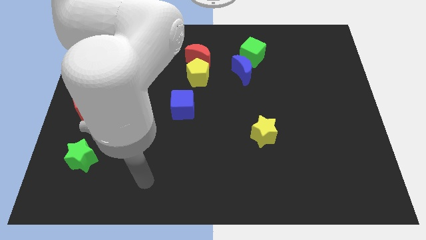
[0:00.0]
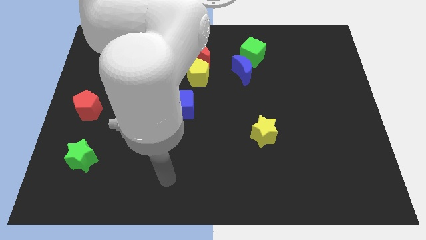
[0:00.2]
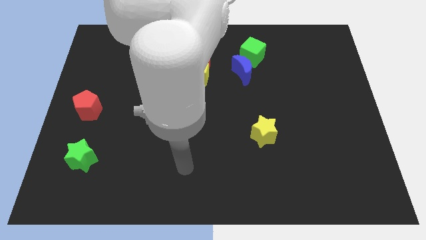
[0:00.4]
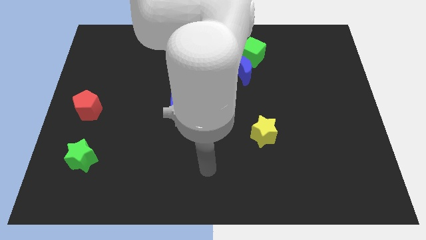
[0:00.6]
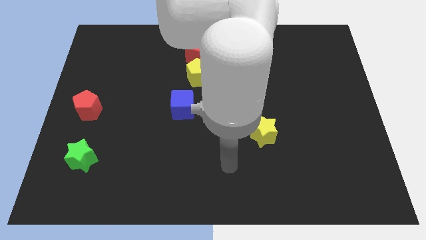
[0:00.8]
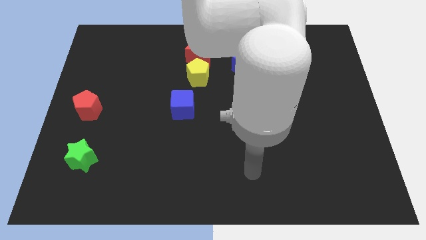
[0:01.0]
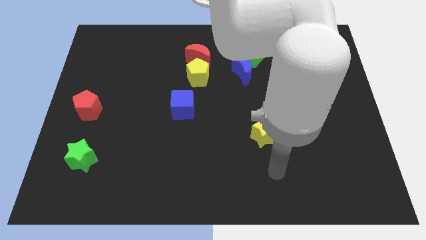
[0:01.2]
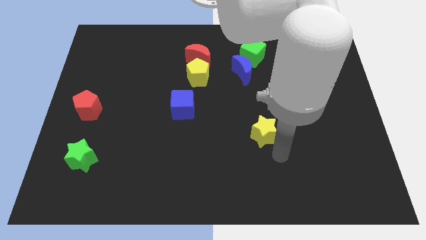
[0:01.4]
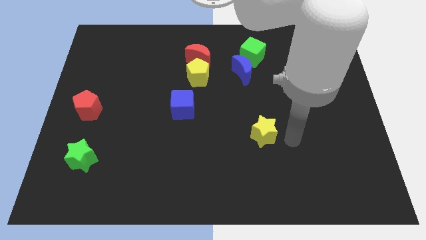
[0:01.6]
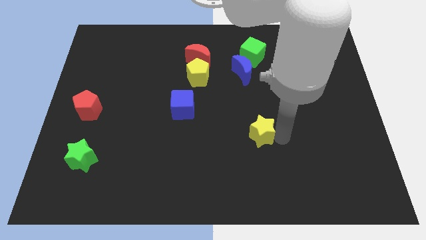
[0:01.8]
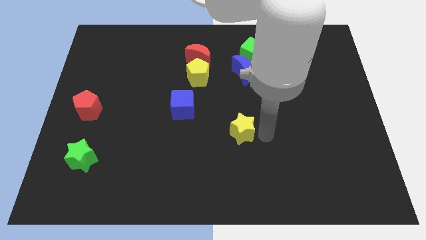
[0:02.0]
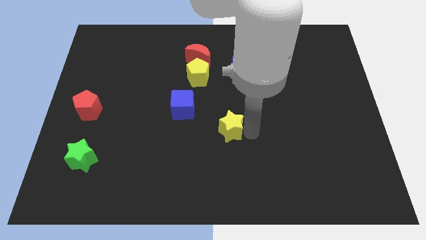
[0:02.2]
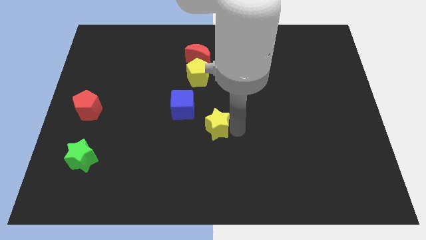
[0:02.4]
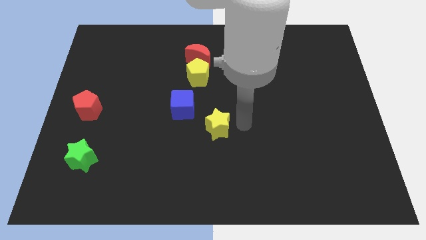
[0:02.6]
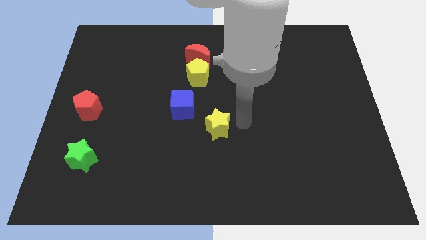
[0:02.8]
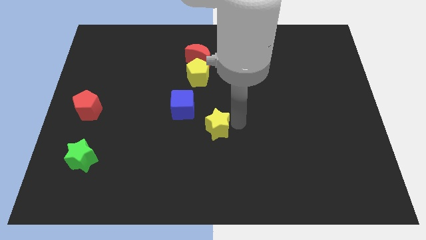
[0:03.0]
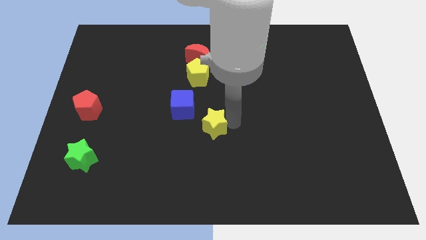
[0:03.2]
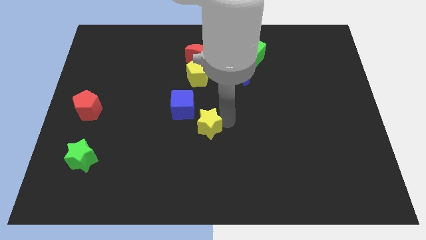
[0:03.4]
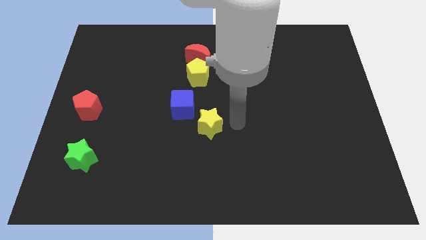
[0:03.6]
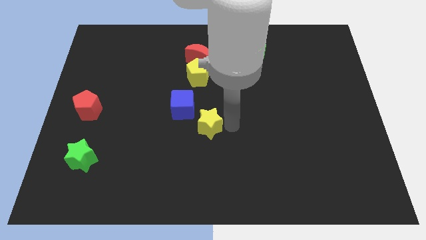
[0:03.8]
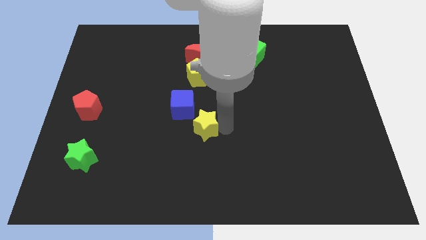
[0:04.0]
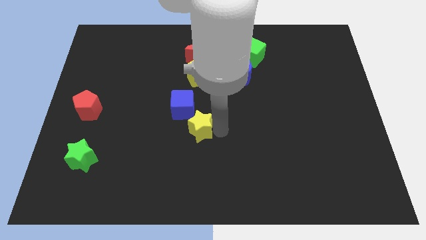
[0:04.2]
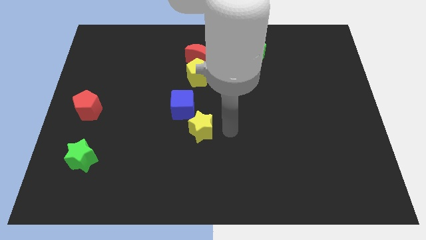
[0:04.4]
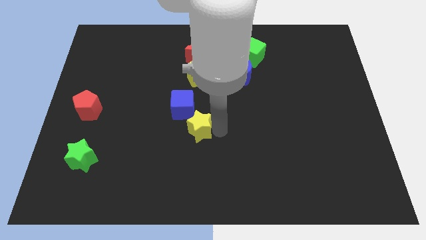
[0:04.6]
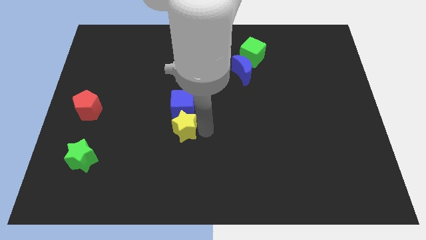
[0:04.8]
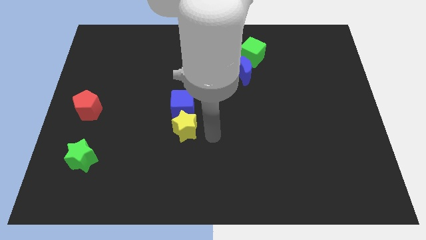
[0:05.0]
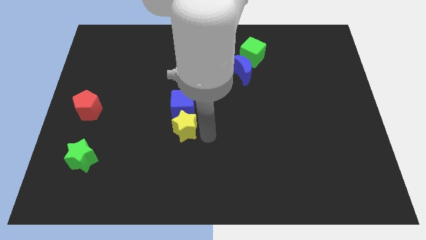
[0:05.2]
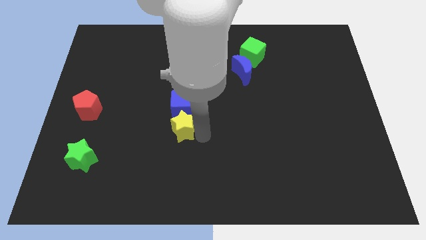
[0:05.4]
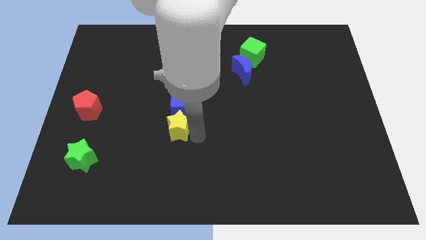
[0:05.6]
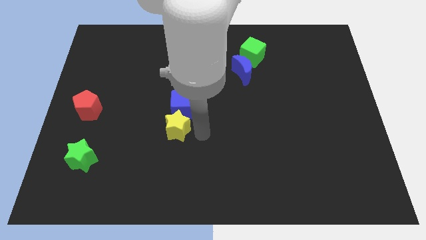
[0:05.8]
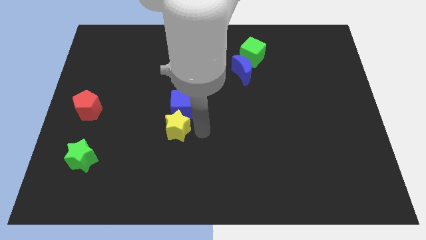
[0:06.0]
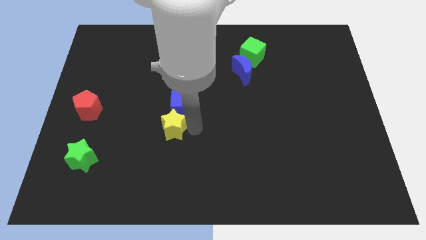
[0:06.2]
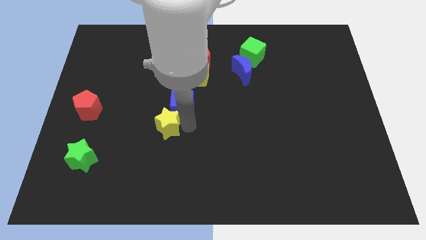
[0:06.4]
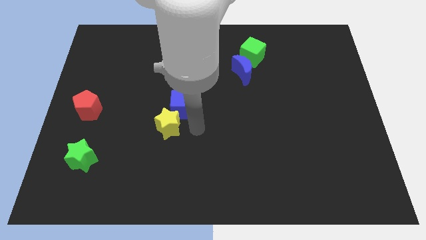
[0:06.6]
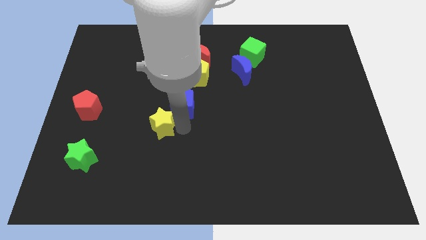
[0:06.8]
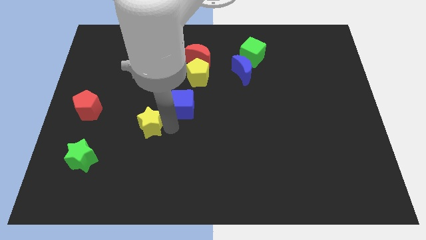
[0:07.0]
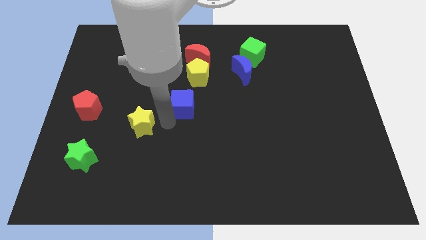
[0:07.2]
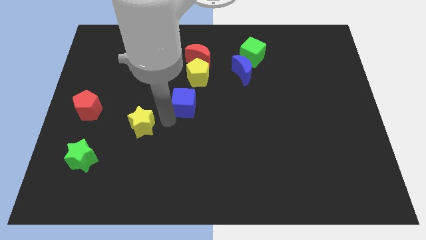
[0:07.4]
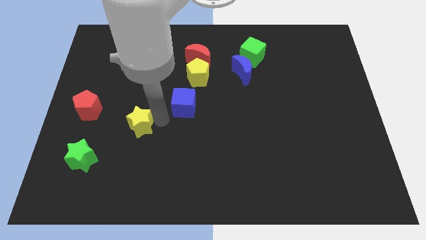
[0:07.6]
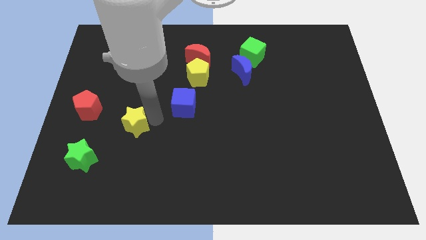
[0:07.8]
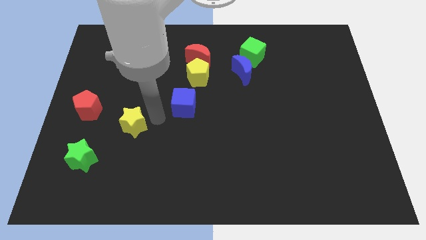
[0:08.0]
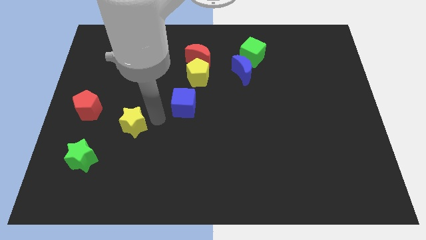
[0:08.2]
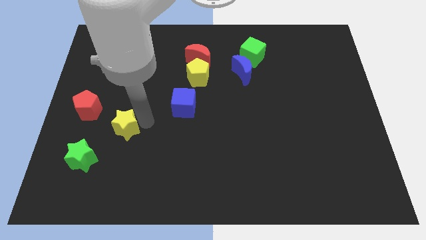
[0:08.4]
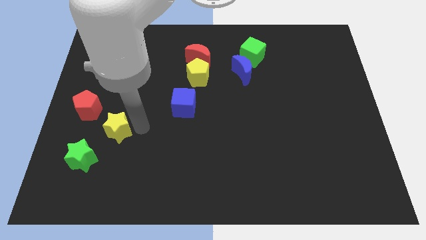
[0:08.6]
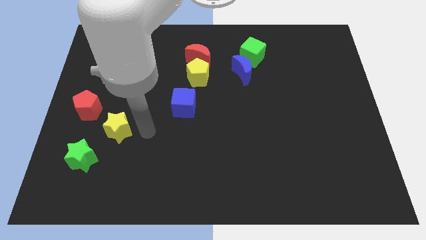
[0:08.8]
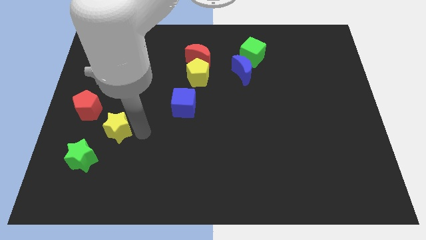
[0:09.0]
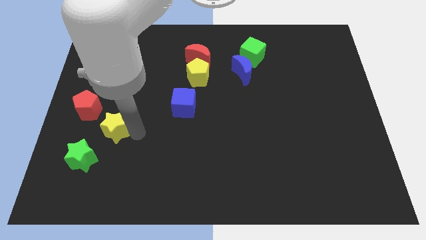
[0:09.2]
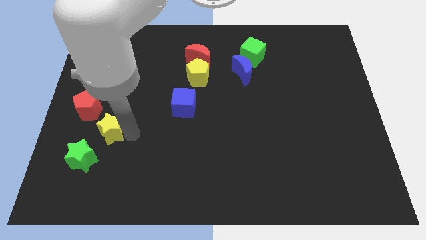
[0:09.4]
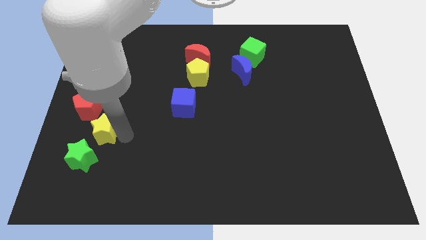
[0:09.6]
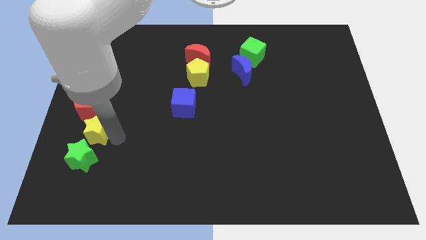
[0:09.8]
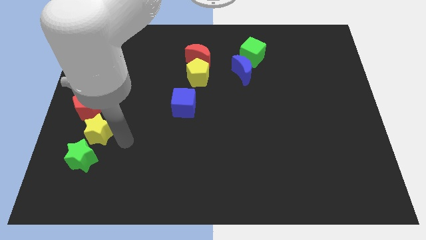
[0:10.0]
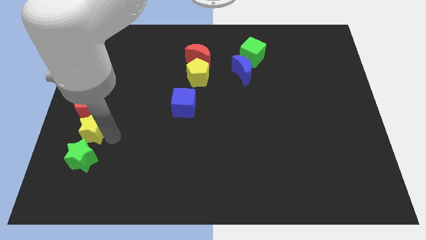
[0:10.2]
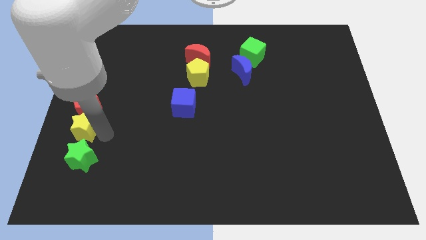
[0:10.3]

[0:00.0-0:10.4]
slide the yellow star to the center left
